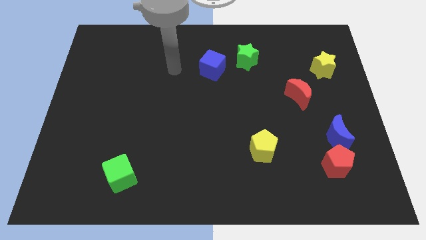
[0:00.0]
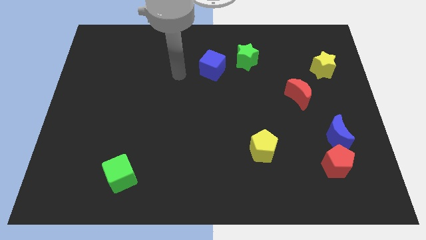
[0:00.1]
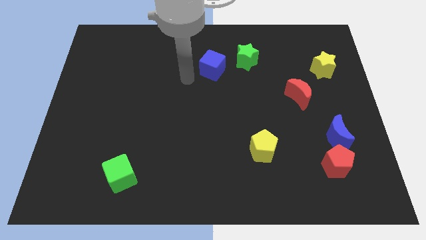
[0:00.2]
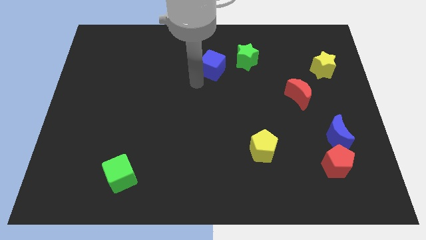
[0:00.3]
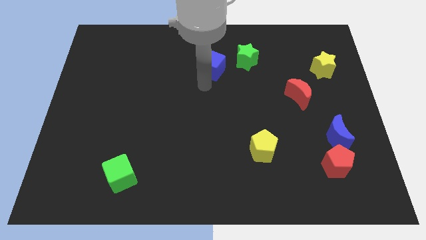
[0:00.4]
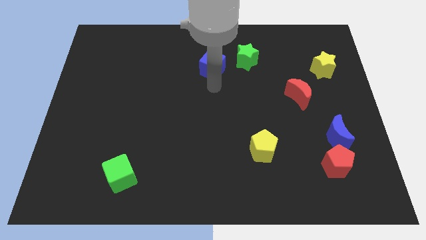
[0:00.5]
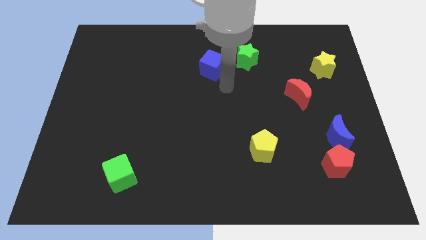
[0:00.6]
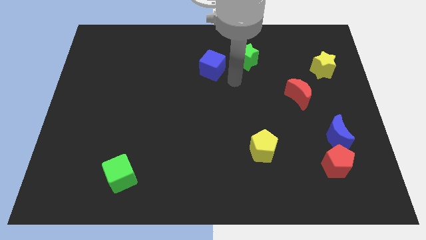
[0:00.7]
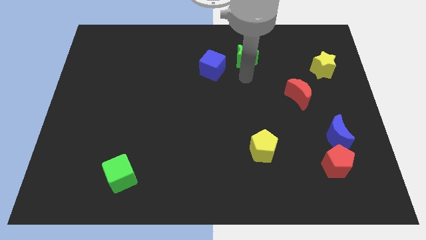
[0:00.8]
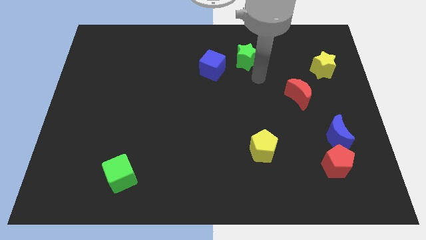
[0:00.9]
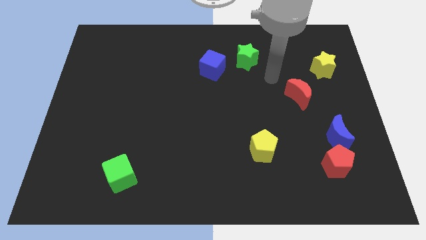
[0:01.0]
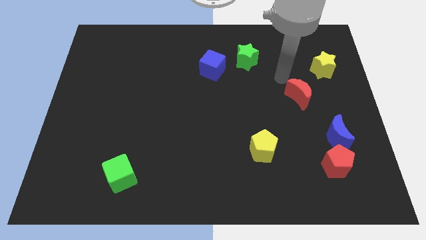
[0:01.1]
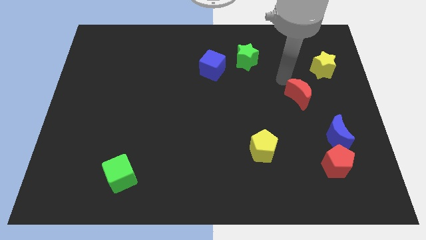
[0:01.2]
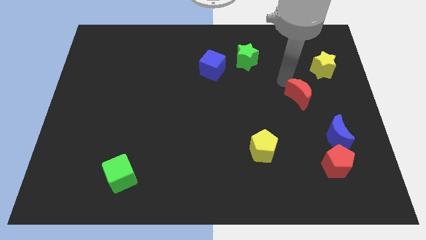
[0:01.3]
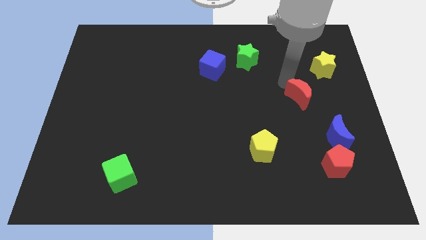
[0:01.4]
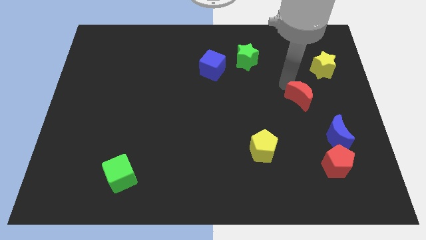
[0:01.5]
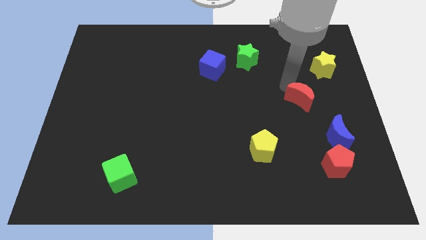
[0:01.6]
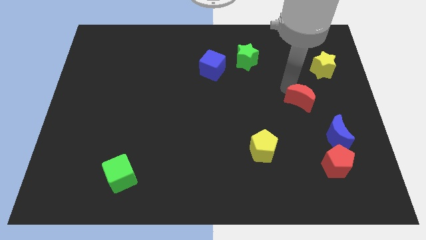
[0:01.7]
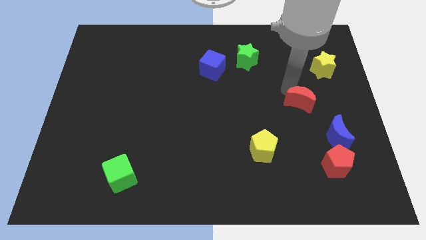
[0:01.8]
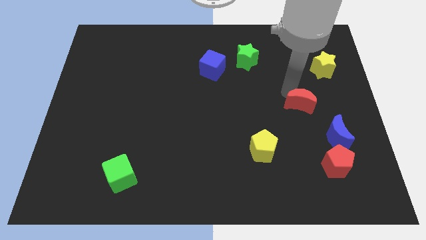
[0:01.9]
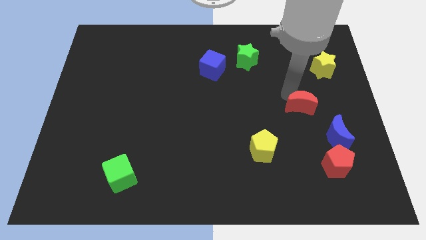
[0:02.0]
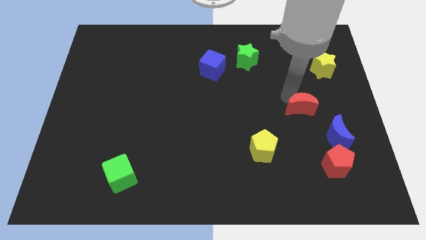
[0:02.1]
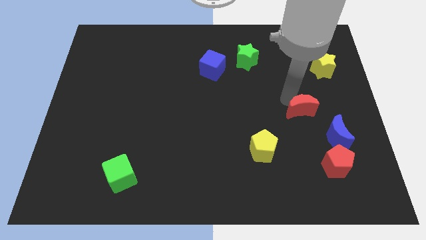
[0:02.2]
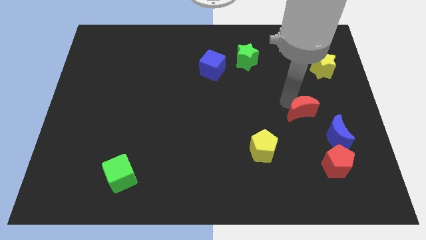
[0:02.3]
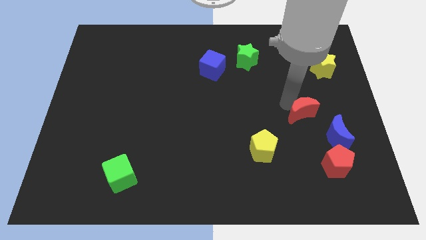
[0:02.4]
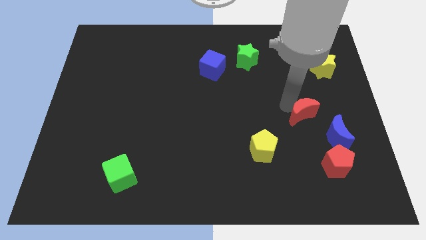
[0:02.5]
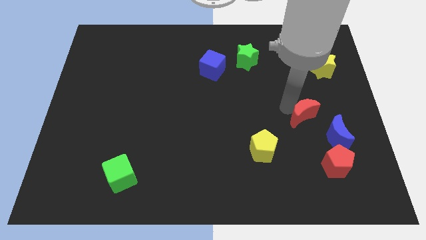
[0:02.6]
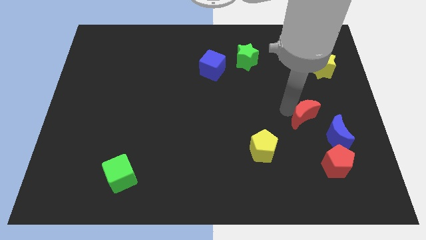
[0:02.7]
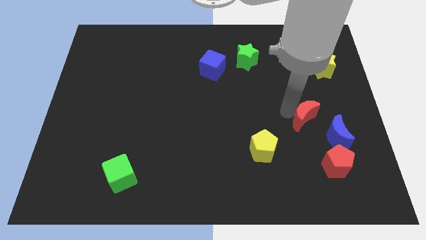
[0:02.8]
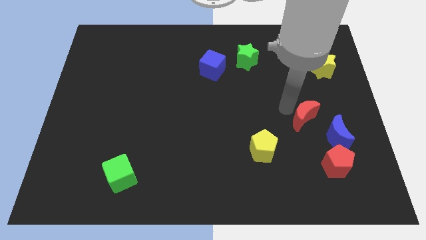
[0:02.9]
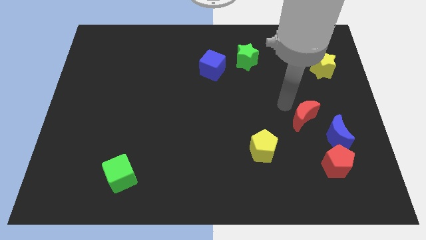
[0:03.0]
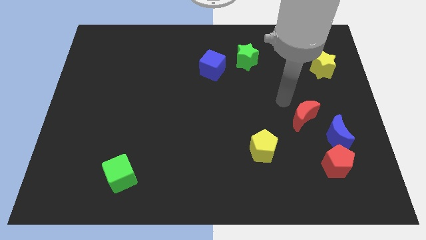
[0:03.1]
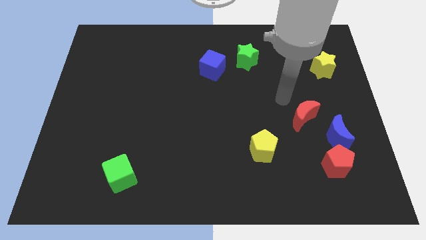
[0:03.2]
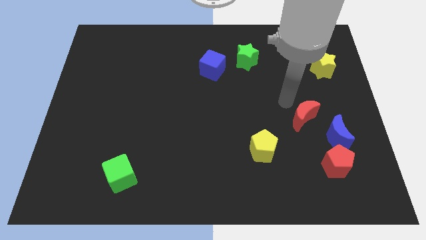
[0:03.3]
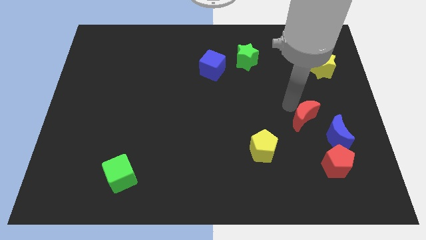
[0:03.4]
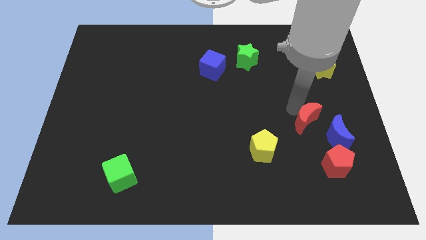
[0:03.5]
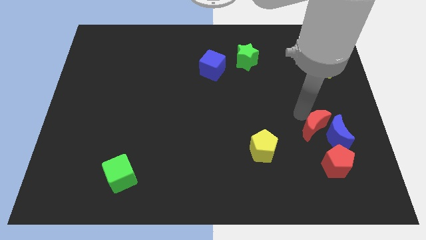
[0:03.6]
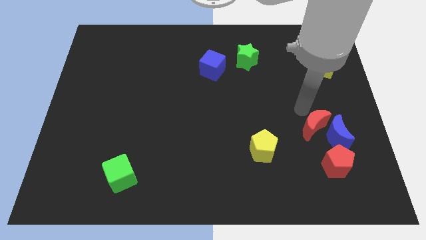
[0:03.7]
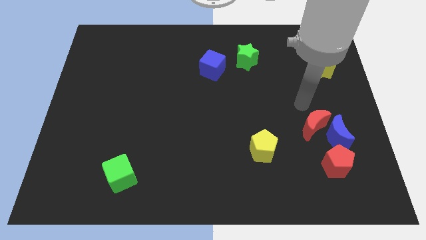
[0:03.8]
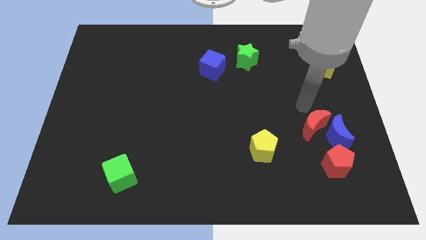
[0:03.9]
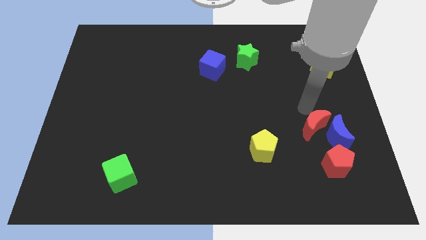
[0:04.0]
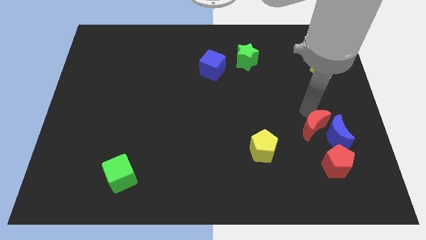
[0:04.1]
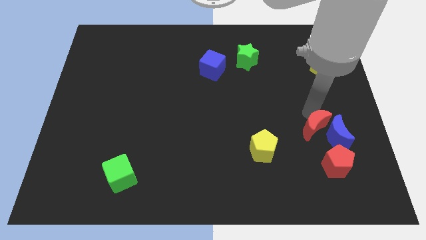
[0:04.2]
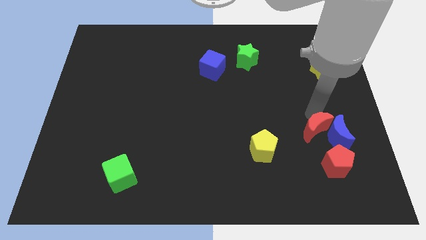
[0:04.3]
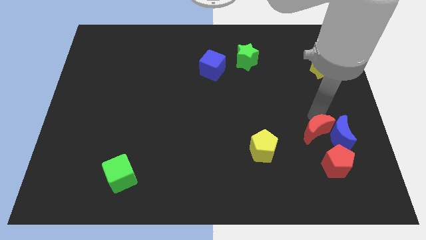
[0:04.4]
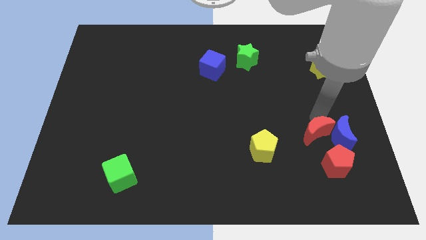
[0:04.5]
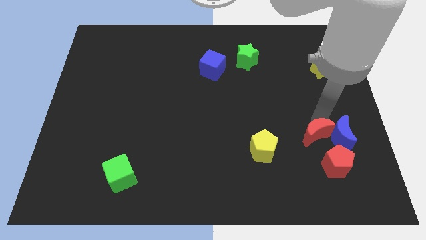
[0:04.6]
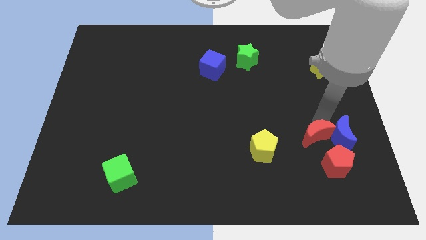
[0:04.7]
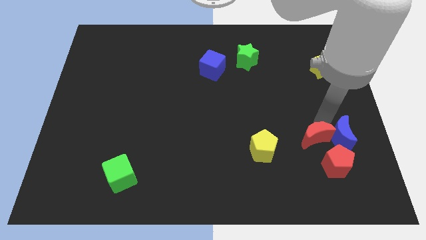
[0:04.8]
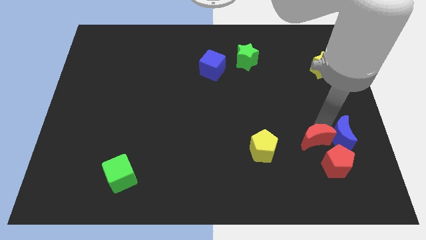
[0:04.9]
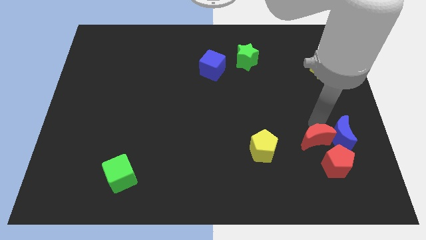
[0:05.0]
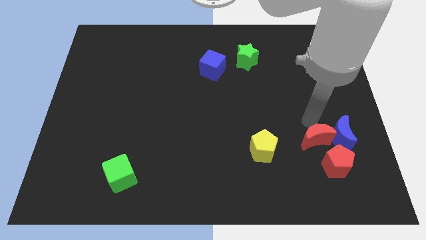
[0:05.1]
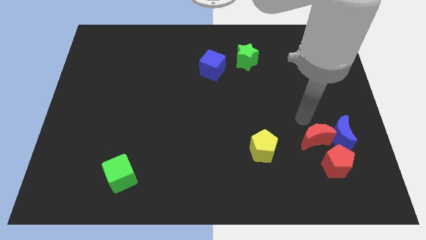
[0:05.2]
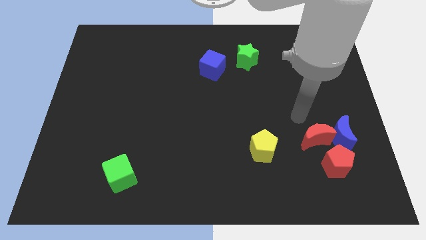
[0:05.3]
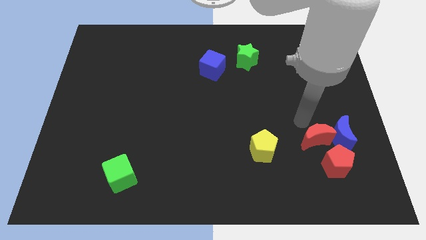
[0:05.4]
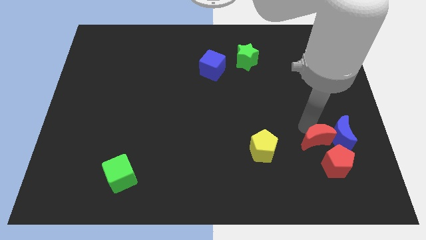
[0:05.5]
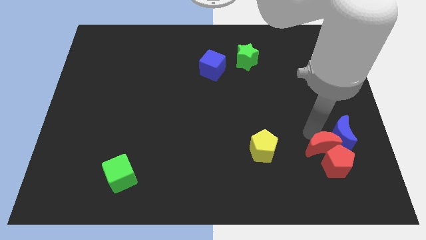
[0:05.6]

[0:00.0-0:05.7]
push the red moon to the red pentagon

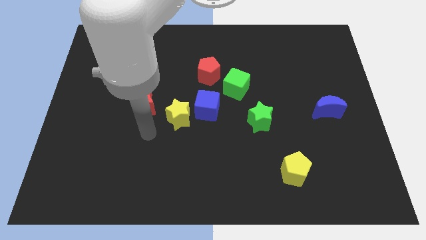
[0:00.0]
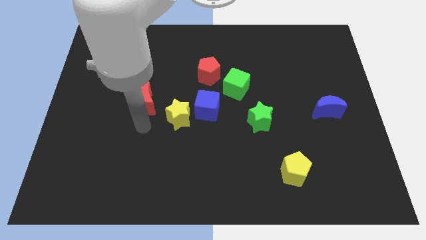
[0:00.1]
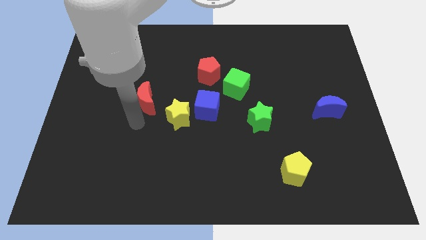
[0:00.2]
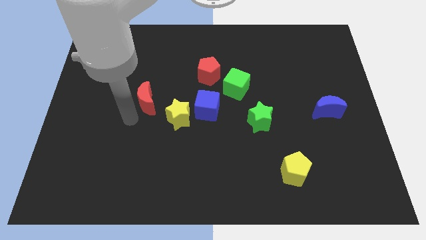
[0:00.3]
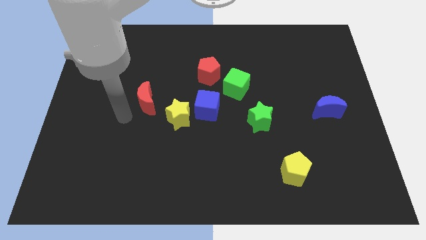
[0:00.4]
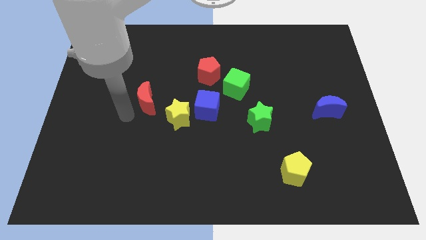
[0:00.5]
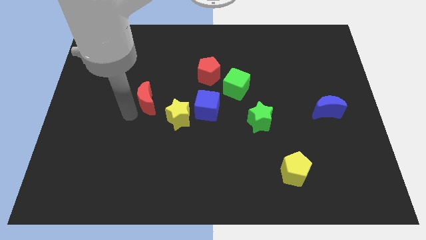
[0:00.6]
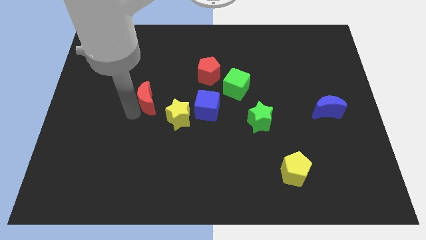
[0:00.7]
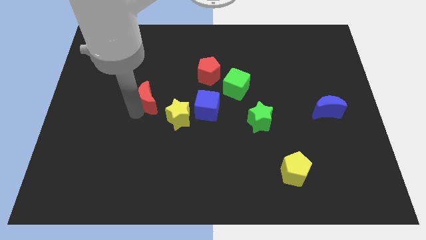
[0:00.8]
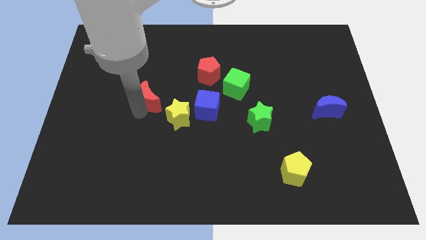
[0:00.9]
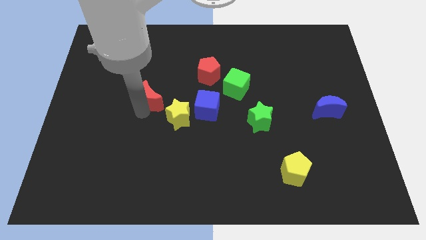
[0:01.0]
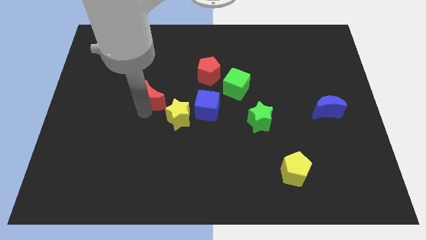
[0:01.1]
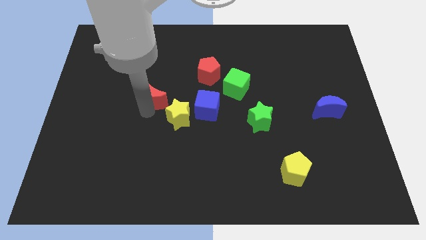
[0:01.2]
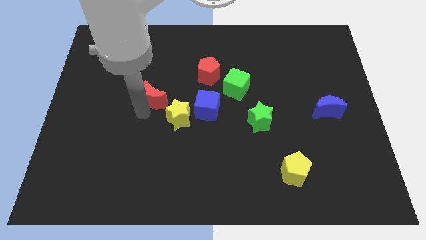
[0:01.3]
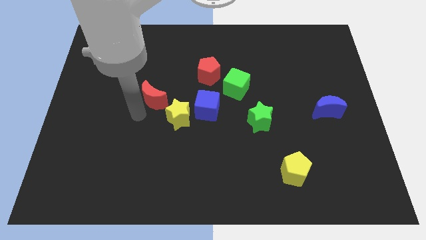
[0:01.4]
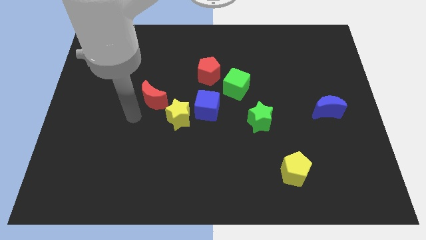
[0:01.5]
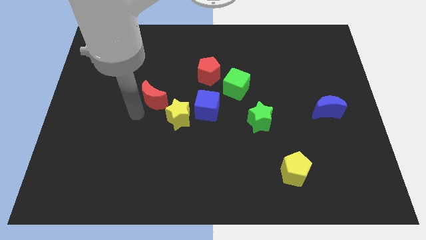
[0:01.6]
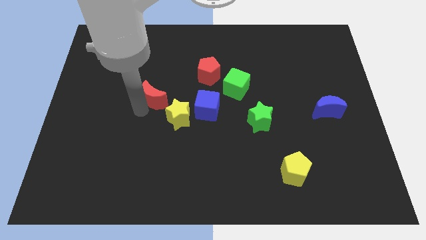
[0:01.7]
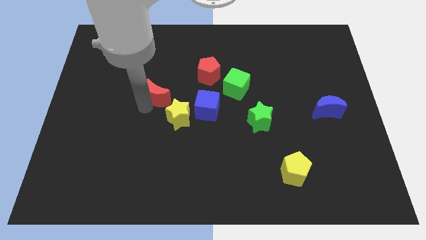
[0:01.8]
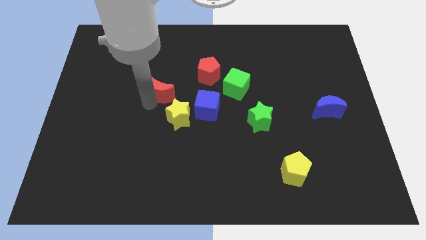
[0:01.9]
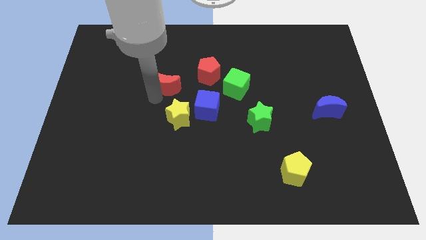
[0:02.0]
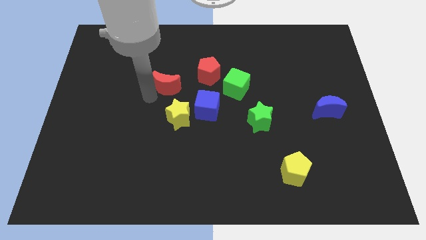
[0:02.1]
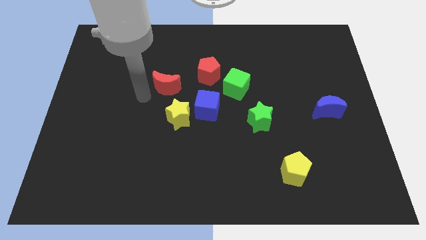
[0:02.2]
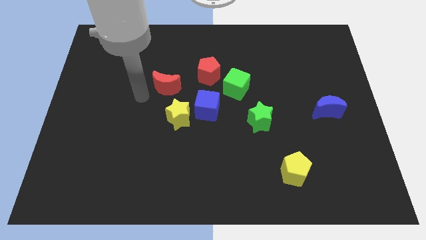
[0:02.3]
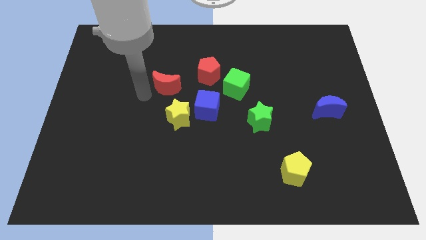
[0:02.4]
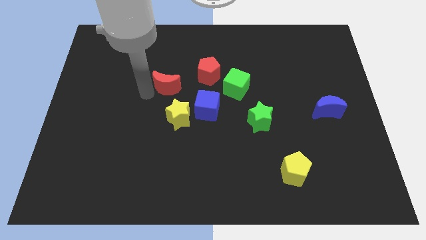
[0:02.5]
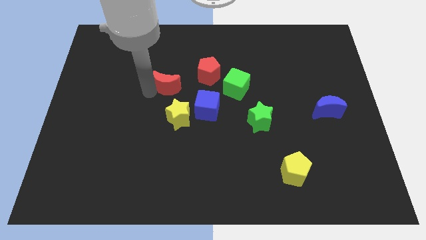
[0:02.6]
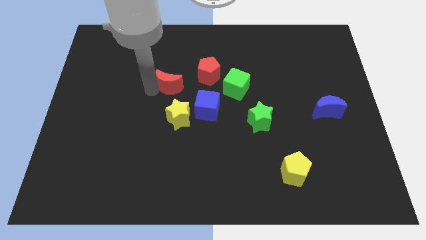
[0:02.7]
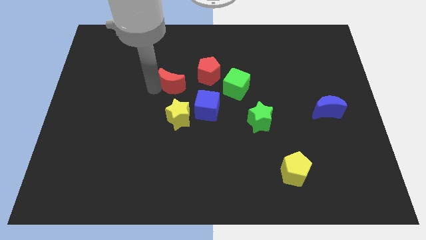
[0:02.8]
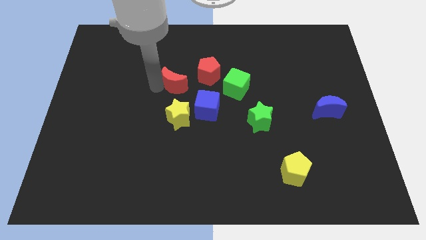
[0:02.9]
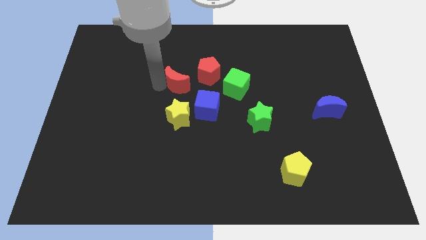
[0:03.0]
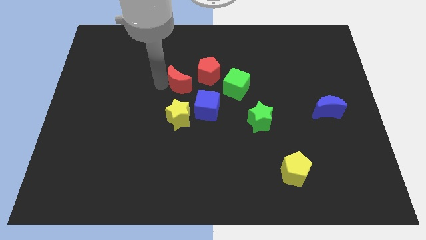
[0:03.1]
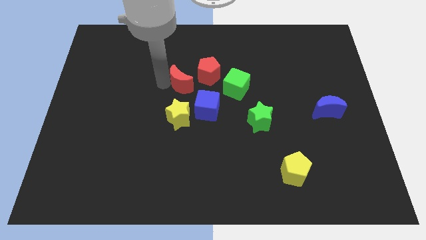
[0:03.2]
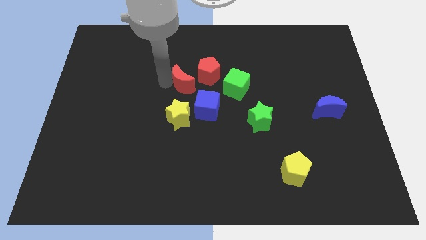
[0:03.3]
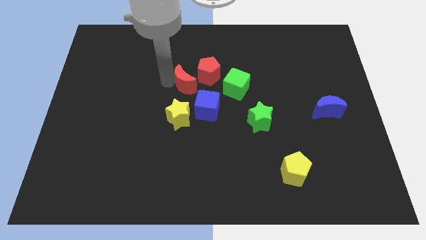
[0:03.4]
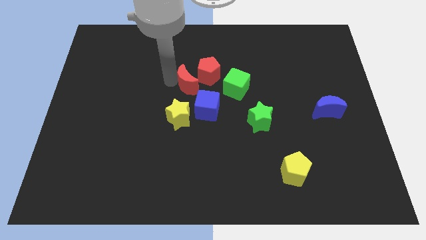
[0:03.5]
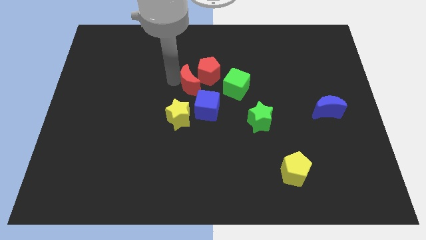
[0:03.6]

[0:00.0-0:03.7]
put the red moon to the red pentagon
